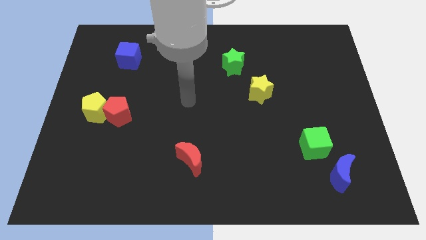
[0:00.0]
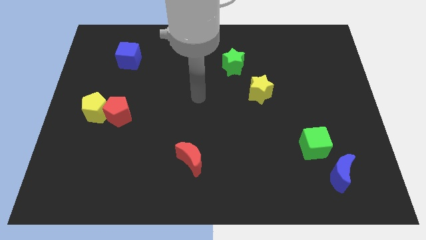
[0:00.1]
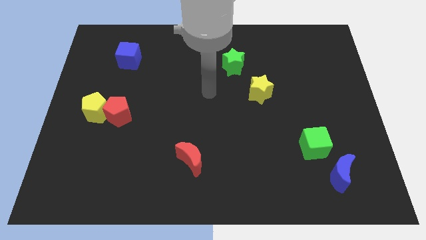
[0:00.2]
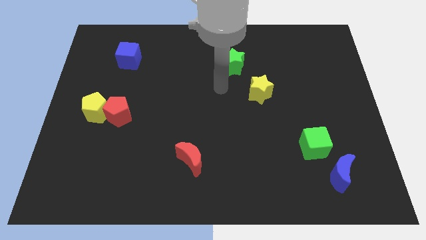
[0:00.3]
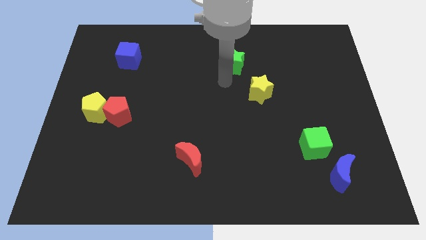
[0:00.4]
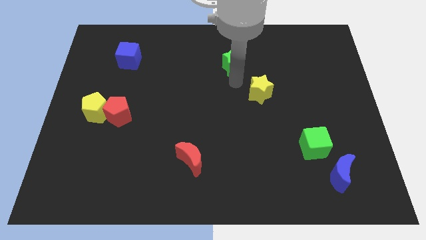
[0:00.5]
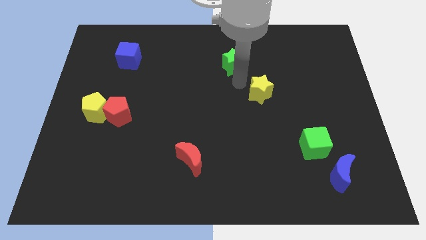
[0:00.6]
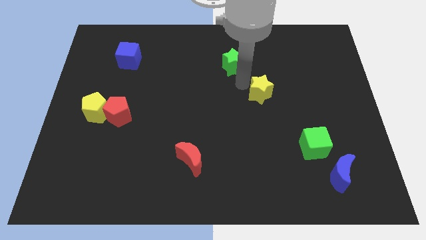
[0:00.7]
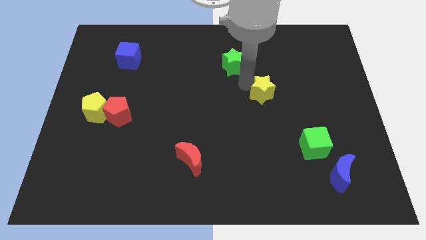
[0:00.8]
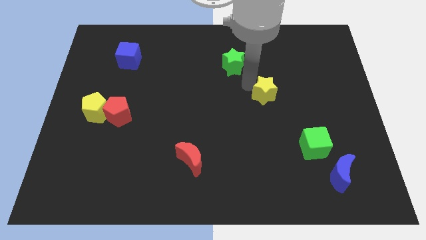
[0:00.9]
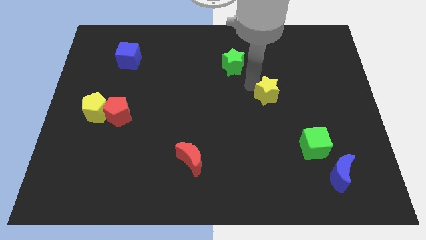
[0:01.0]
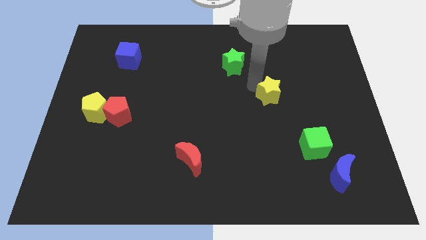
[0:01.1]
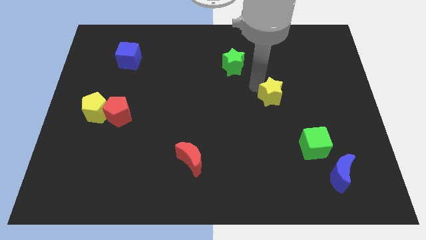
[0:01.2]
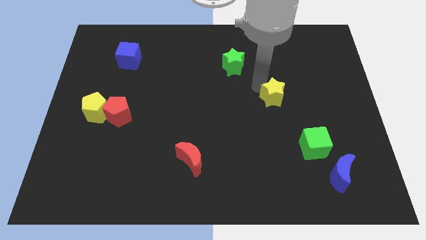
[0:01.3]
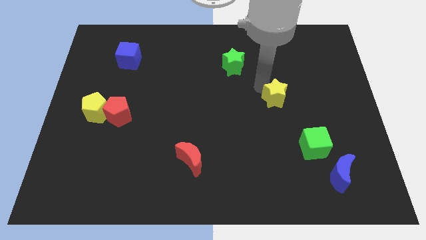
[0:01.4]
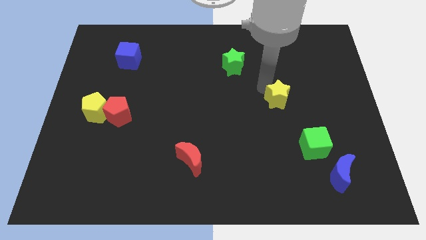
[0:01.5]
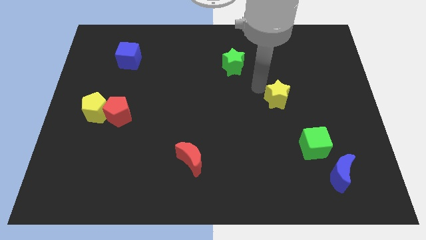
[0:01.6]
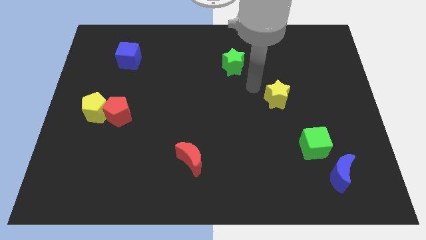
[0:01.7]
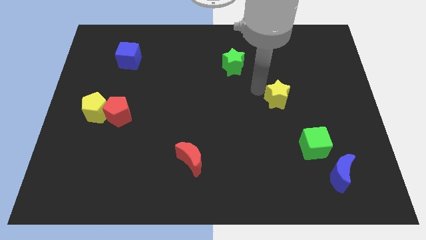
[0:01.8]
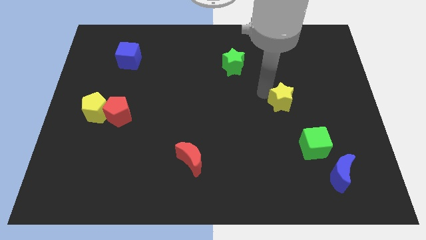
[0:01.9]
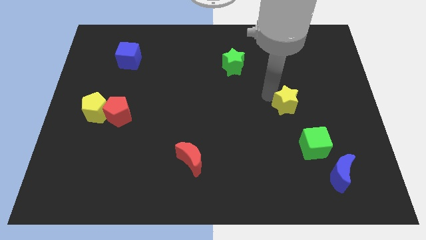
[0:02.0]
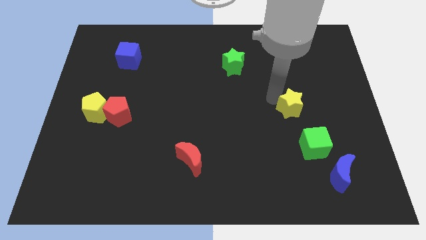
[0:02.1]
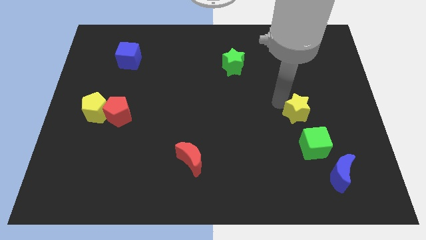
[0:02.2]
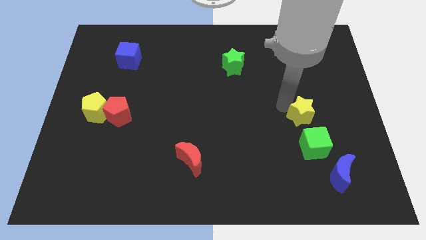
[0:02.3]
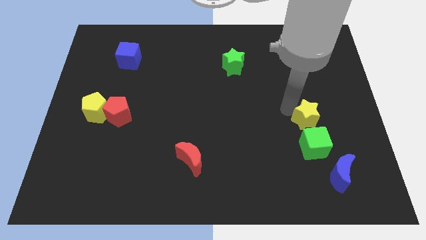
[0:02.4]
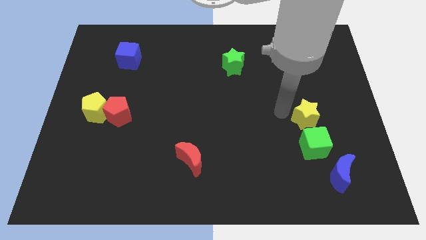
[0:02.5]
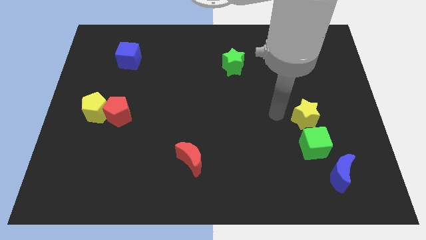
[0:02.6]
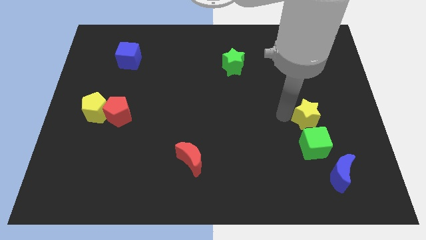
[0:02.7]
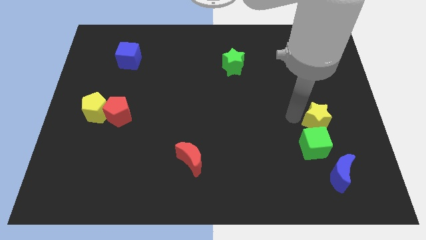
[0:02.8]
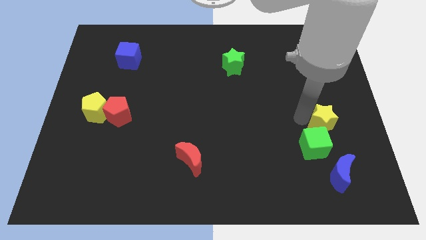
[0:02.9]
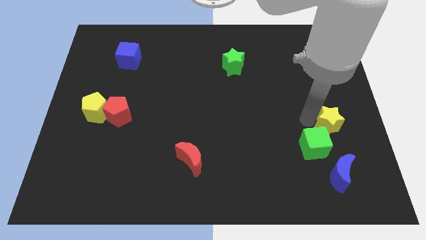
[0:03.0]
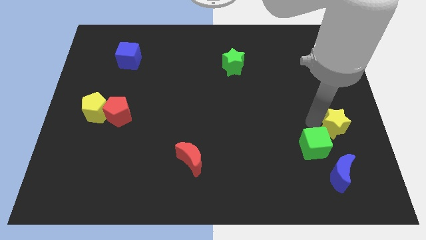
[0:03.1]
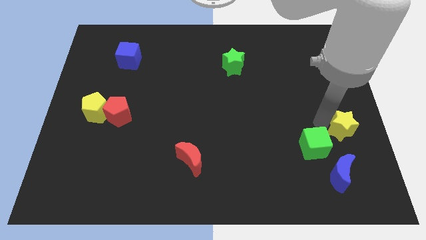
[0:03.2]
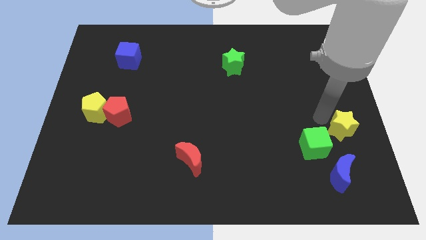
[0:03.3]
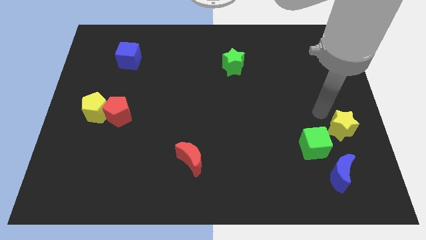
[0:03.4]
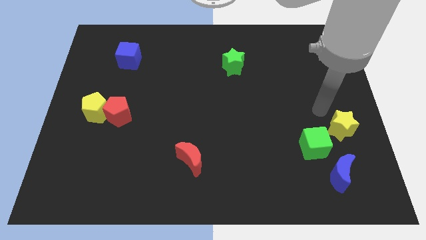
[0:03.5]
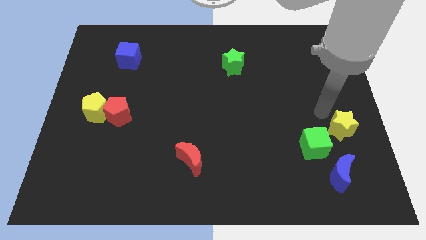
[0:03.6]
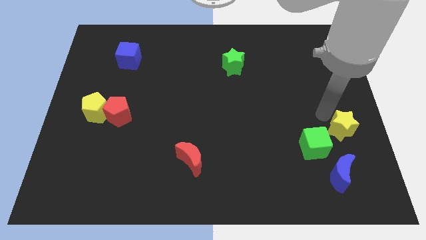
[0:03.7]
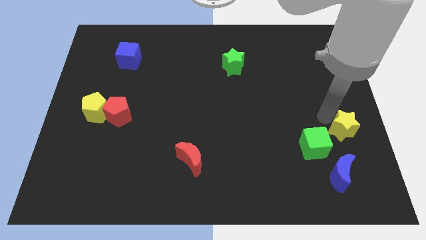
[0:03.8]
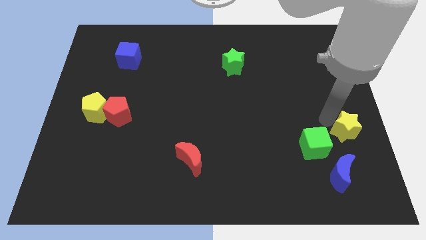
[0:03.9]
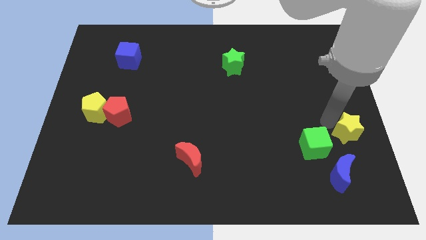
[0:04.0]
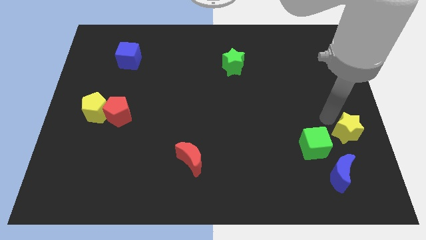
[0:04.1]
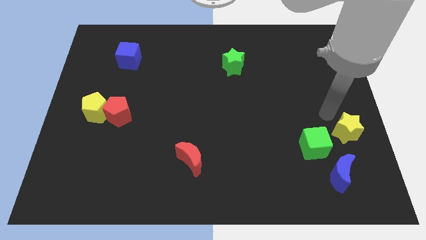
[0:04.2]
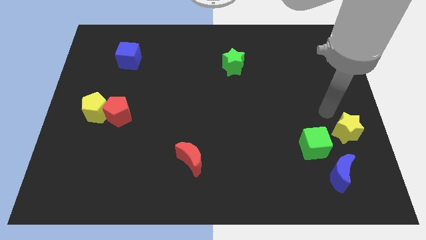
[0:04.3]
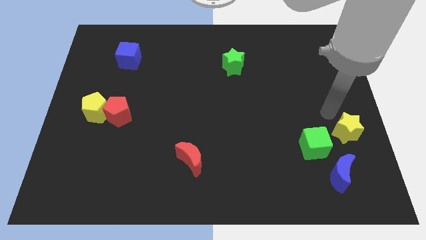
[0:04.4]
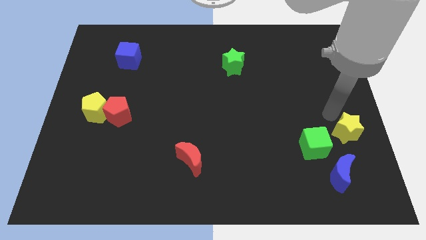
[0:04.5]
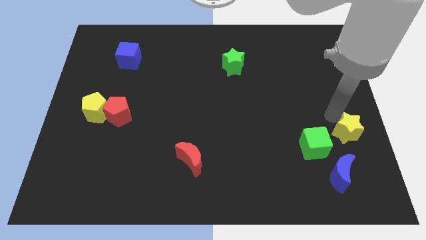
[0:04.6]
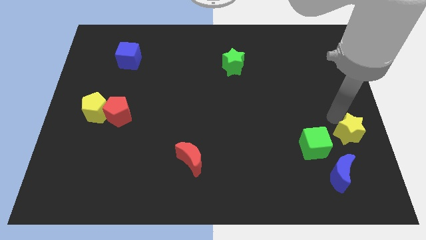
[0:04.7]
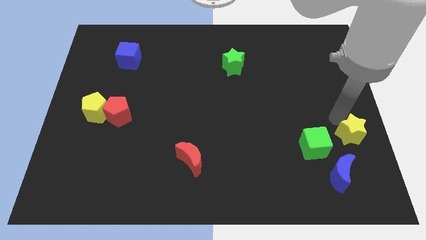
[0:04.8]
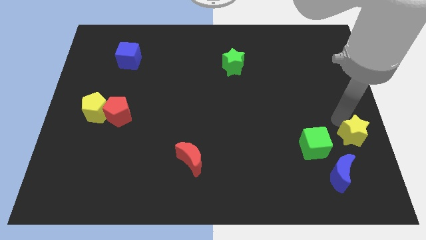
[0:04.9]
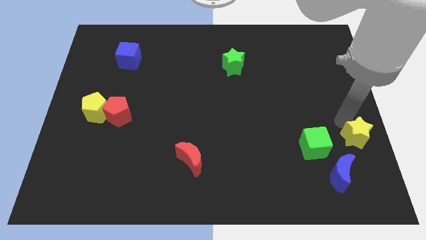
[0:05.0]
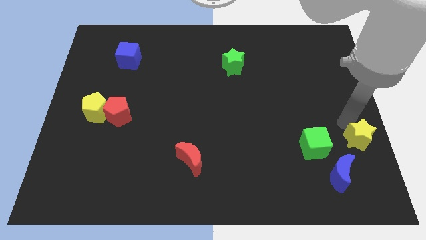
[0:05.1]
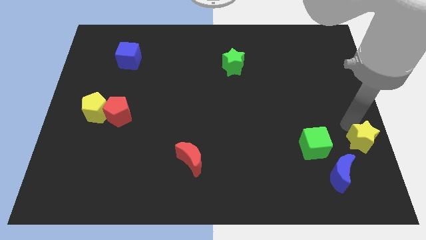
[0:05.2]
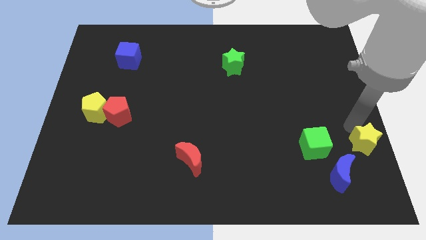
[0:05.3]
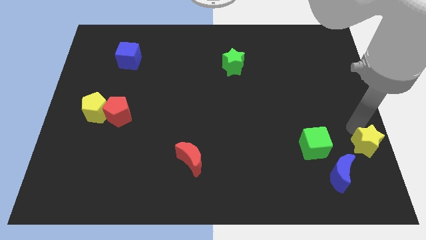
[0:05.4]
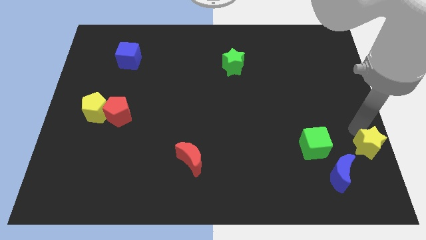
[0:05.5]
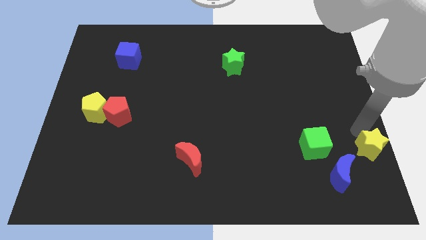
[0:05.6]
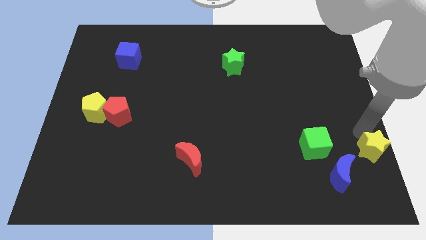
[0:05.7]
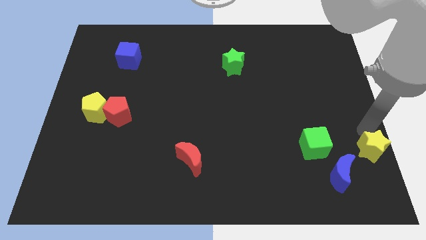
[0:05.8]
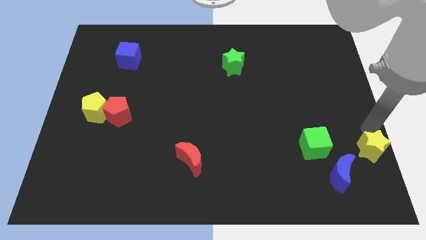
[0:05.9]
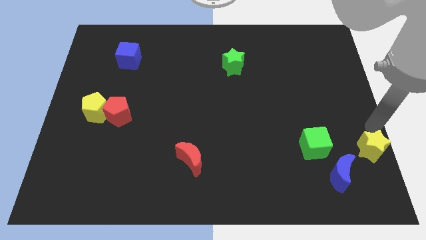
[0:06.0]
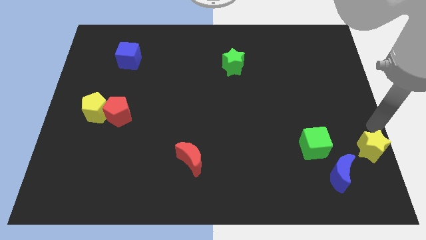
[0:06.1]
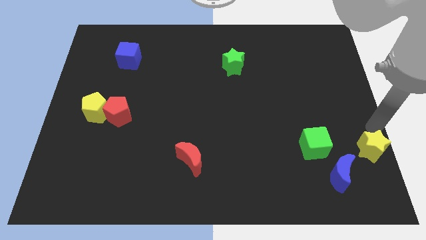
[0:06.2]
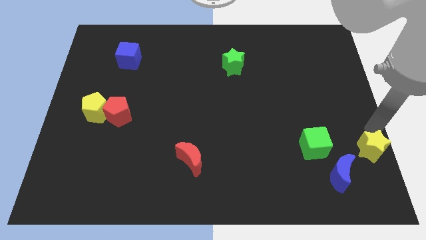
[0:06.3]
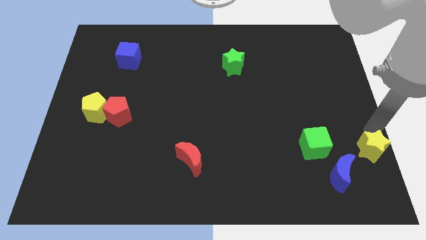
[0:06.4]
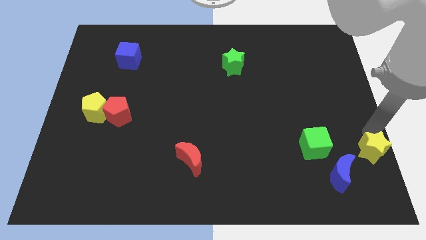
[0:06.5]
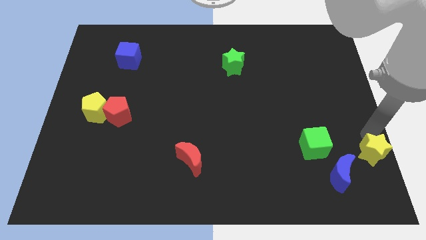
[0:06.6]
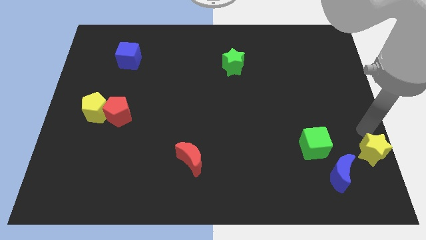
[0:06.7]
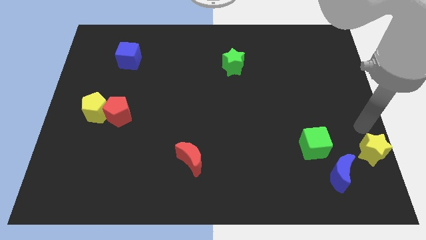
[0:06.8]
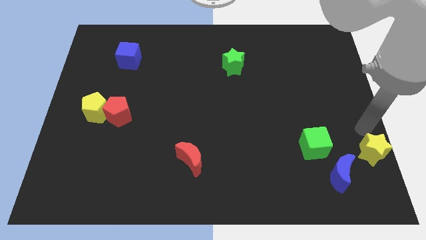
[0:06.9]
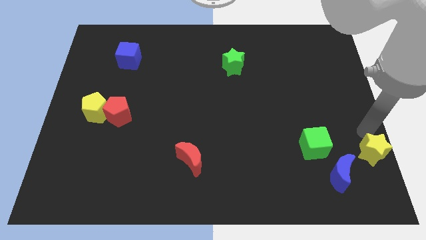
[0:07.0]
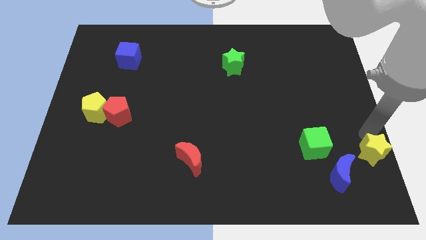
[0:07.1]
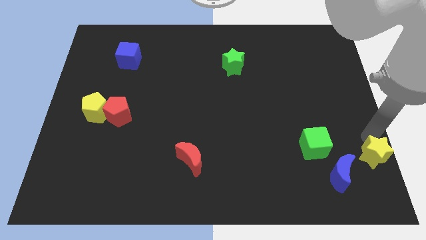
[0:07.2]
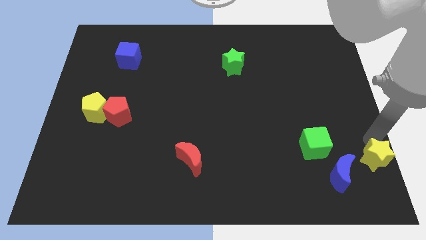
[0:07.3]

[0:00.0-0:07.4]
put the yellow star to the bottom right of the board

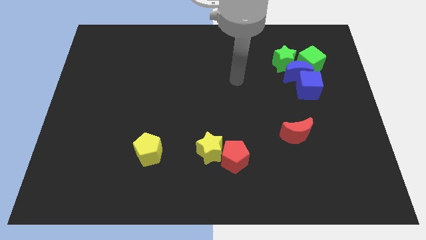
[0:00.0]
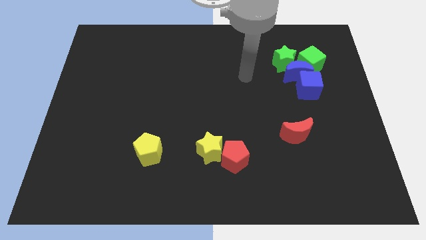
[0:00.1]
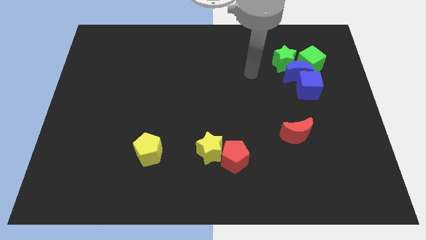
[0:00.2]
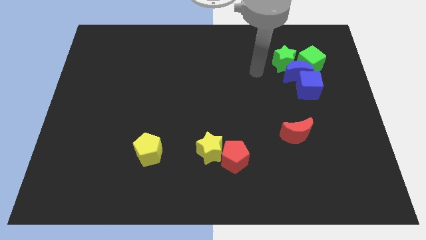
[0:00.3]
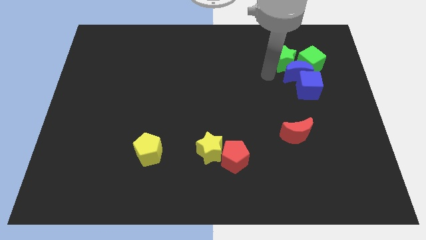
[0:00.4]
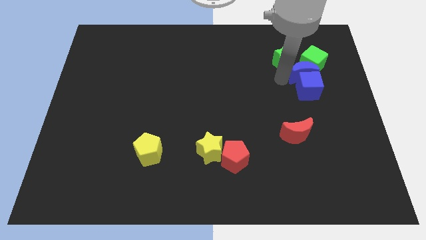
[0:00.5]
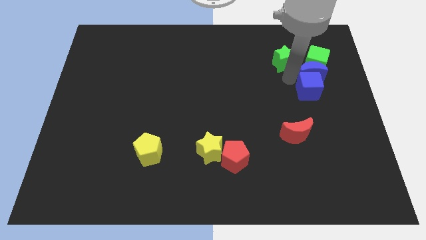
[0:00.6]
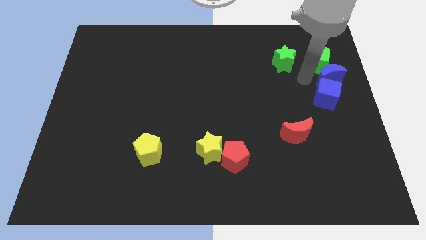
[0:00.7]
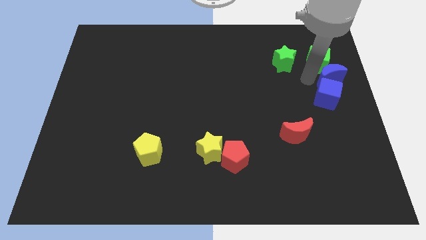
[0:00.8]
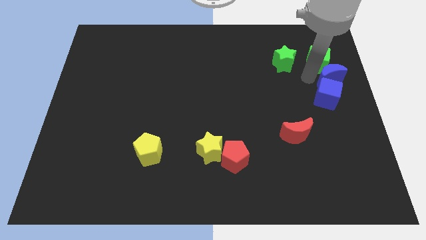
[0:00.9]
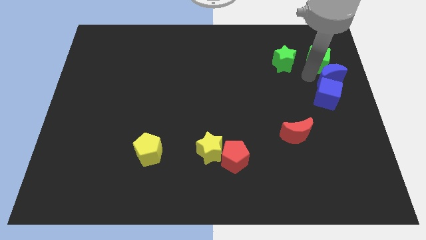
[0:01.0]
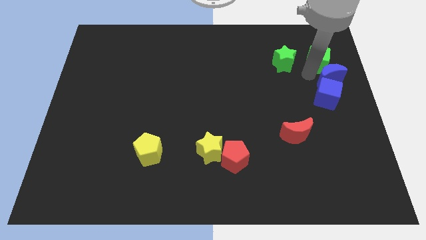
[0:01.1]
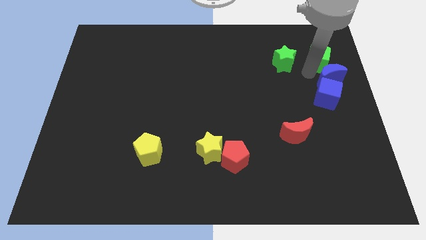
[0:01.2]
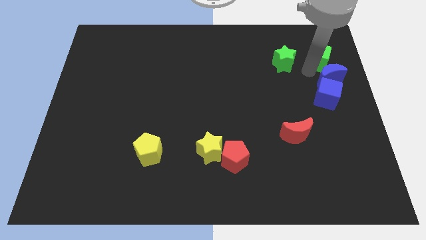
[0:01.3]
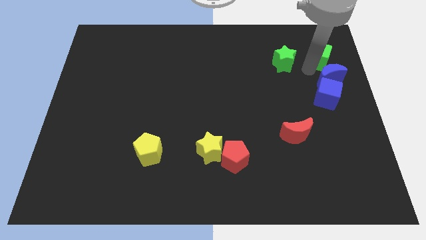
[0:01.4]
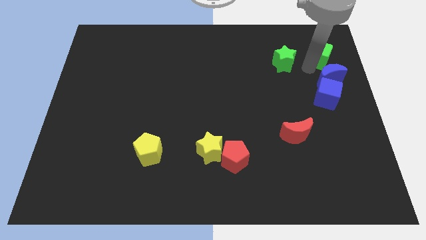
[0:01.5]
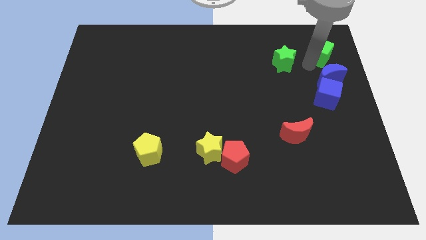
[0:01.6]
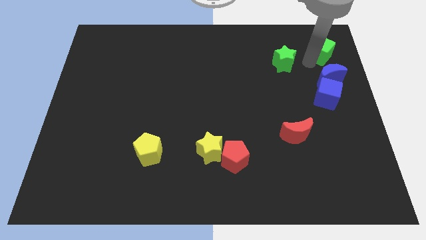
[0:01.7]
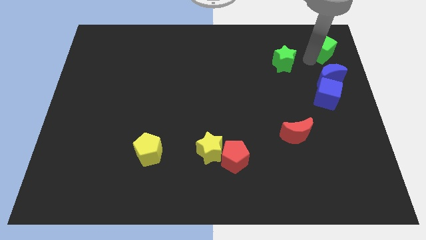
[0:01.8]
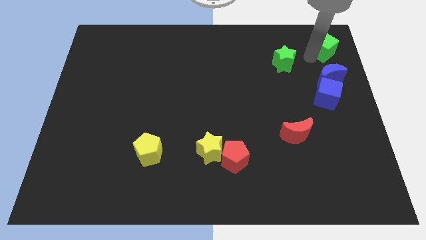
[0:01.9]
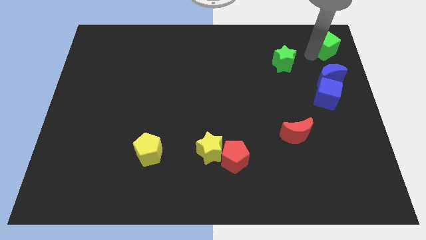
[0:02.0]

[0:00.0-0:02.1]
move the green cube to the top right of the board
